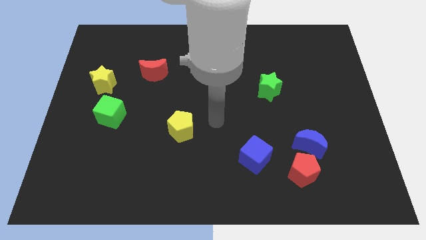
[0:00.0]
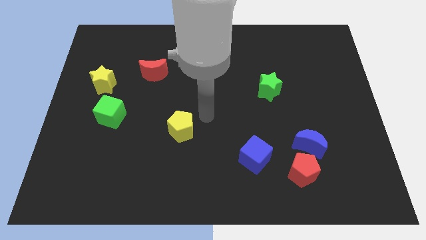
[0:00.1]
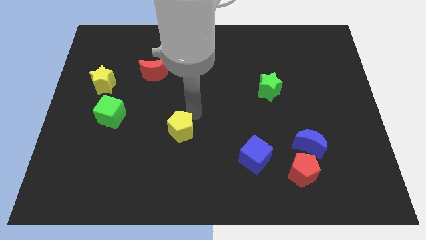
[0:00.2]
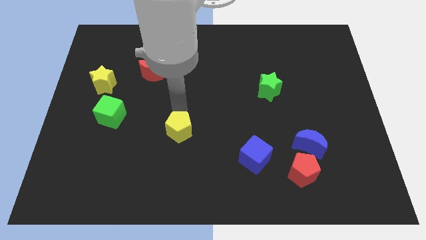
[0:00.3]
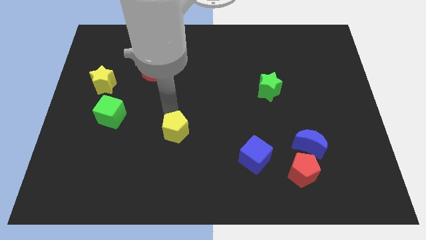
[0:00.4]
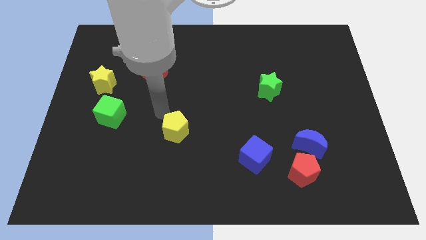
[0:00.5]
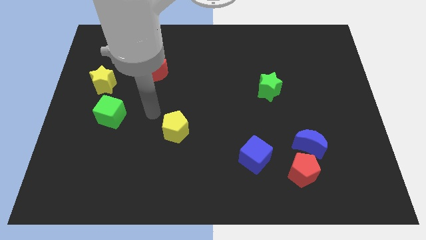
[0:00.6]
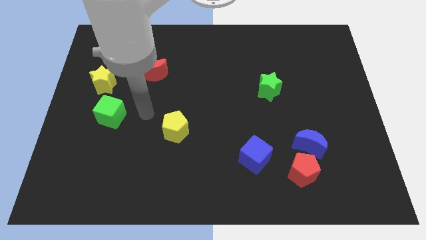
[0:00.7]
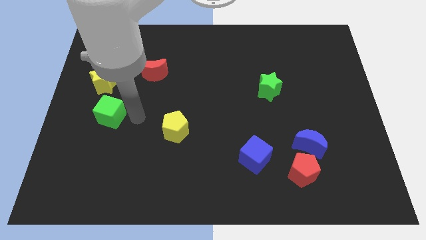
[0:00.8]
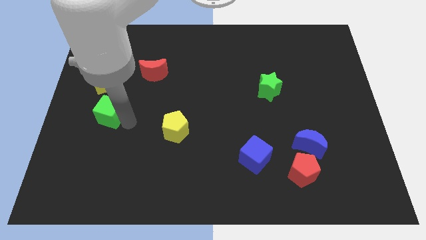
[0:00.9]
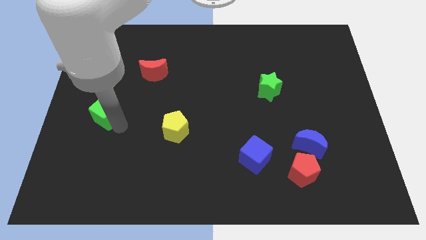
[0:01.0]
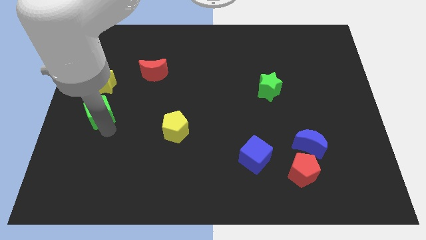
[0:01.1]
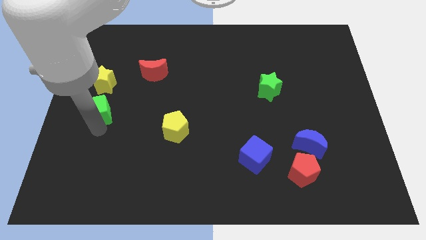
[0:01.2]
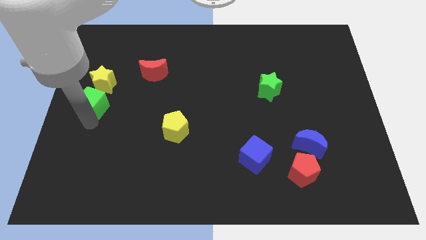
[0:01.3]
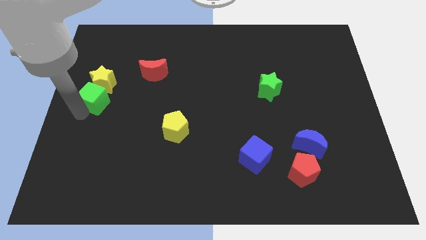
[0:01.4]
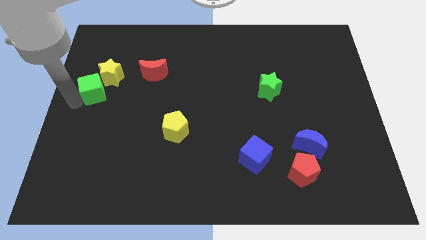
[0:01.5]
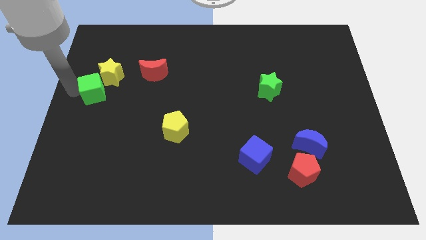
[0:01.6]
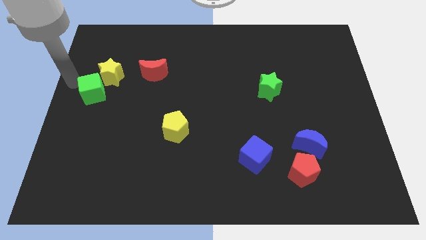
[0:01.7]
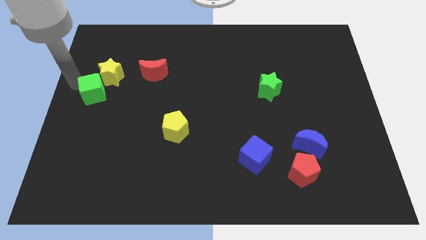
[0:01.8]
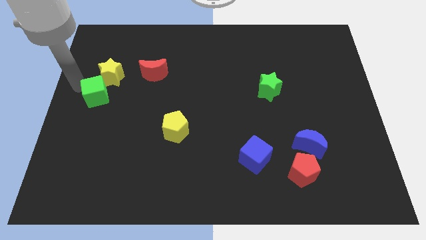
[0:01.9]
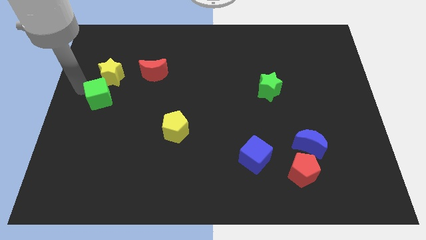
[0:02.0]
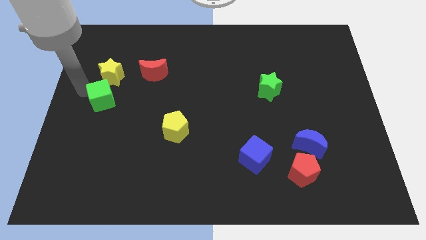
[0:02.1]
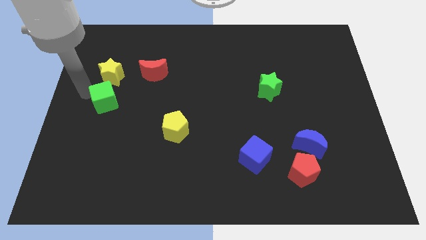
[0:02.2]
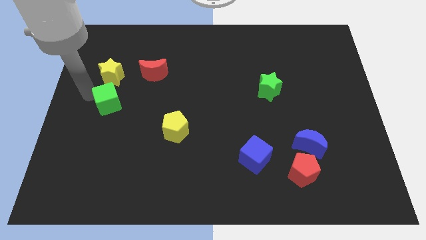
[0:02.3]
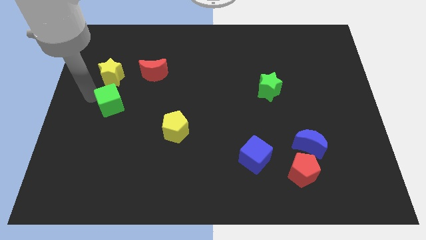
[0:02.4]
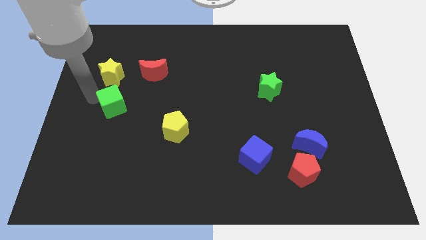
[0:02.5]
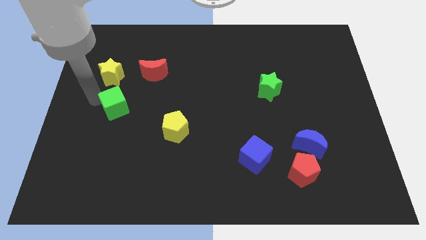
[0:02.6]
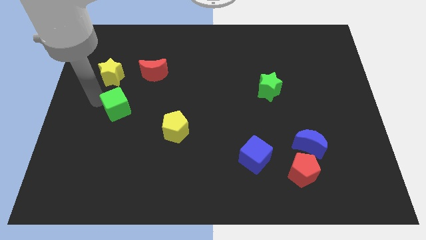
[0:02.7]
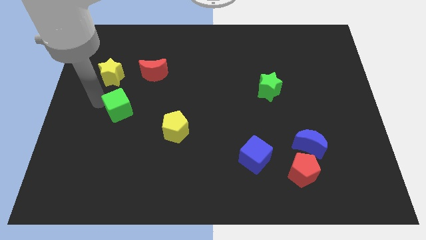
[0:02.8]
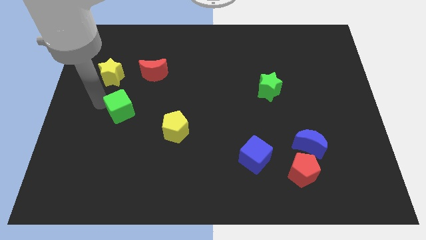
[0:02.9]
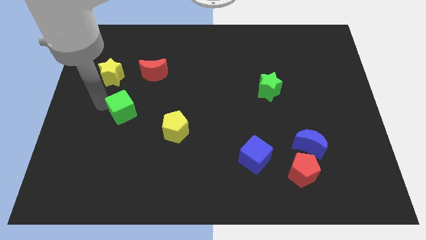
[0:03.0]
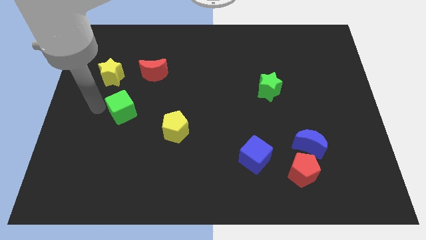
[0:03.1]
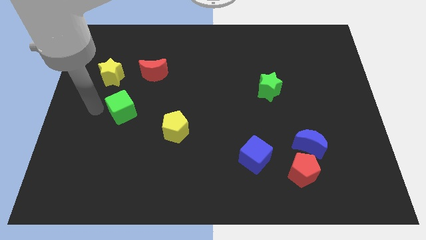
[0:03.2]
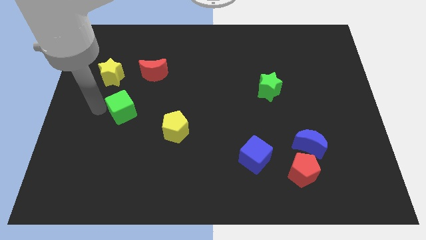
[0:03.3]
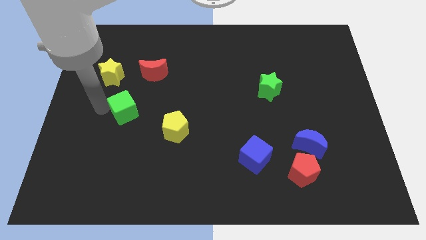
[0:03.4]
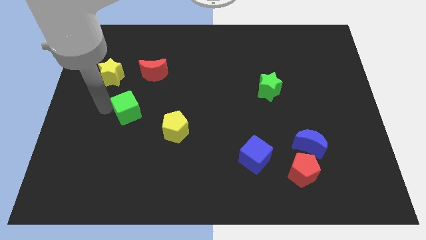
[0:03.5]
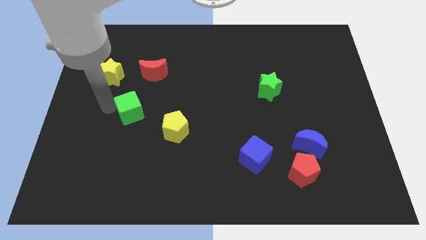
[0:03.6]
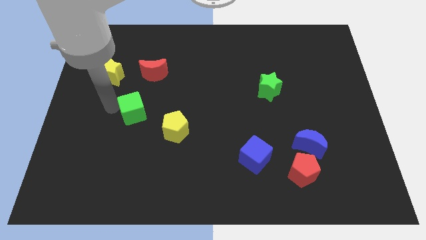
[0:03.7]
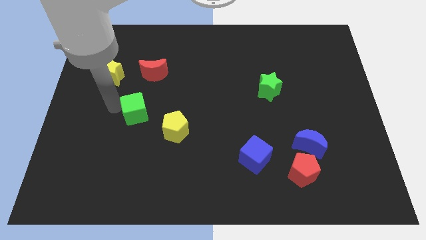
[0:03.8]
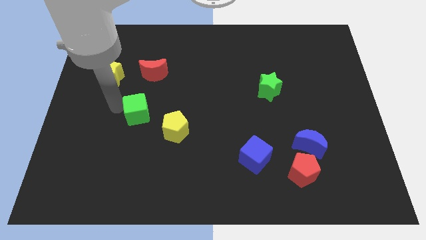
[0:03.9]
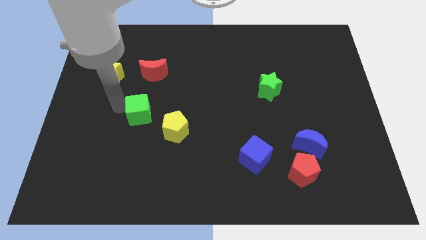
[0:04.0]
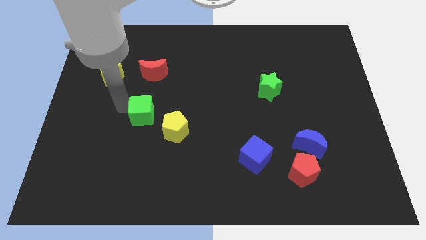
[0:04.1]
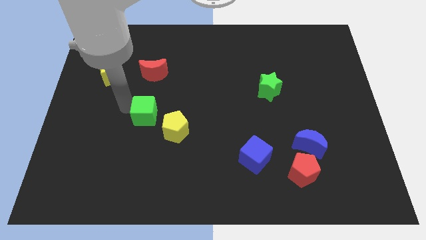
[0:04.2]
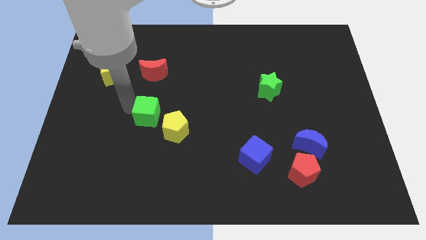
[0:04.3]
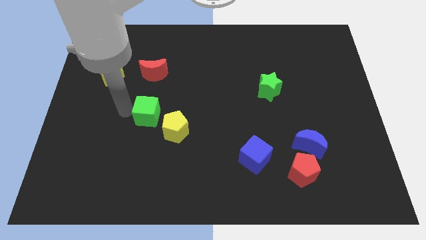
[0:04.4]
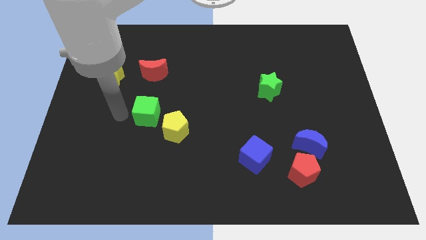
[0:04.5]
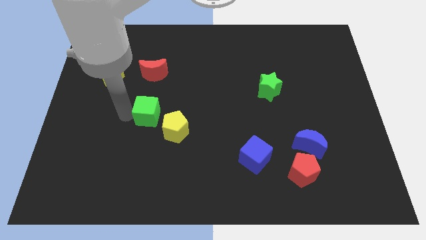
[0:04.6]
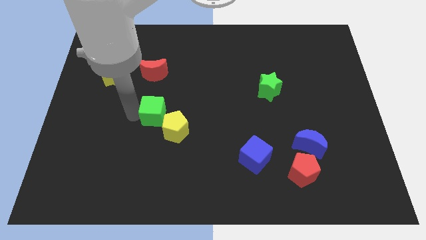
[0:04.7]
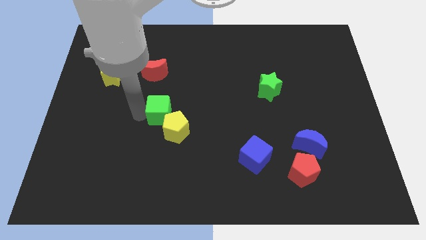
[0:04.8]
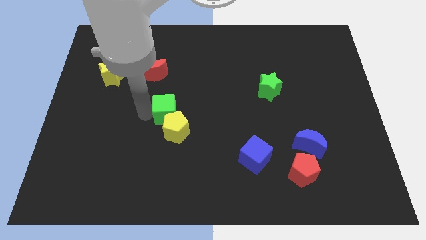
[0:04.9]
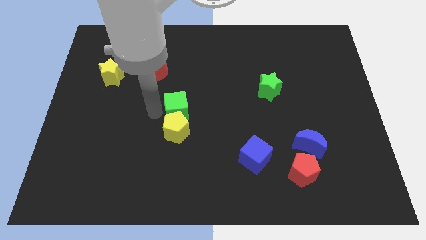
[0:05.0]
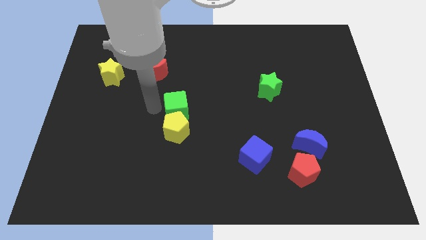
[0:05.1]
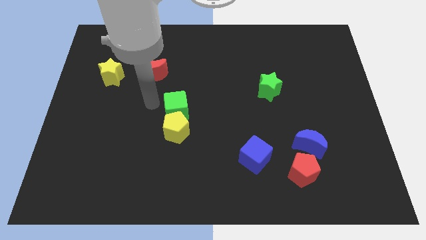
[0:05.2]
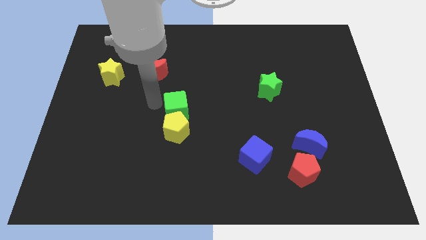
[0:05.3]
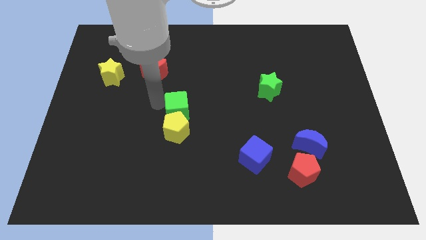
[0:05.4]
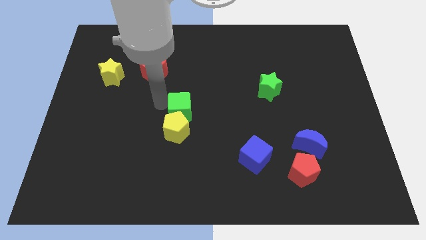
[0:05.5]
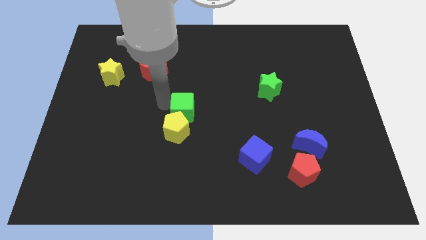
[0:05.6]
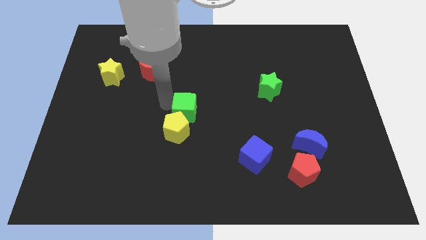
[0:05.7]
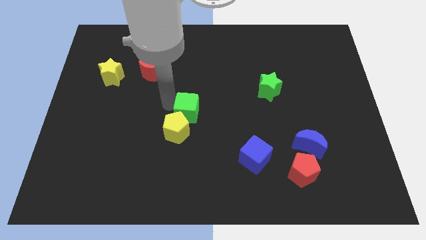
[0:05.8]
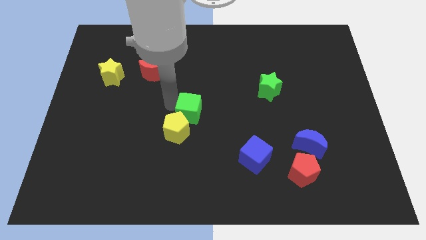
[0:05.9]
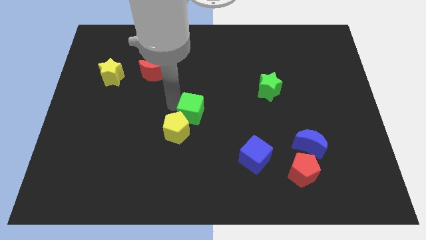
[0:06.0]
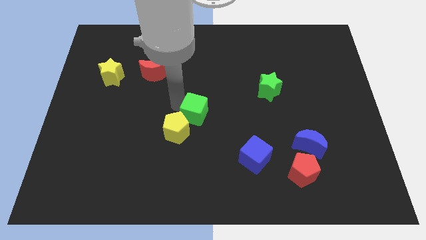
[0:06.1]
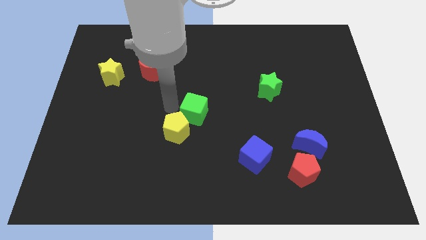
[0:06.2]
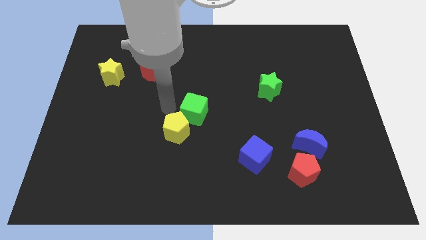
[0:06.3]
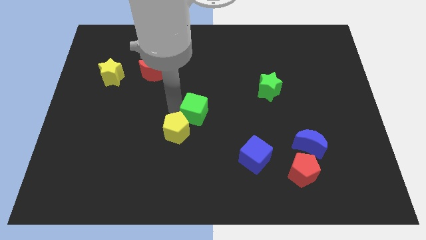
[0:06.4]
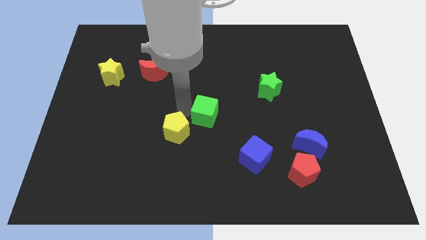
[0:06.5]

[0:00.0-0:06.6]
move the green cube to the right

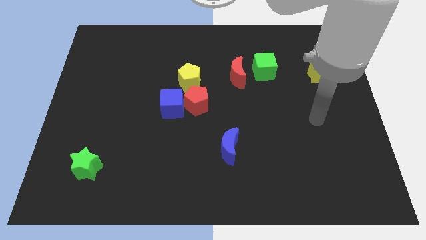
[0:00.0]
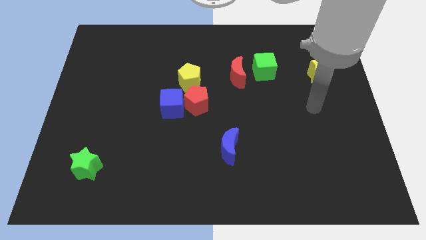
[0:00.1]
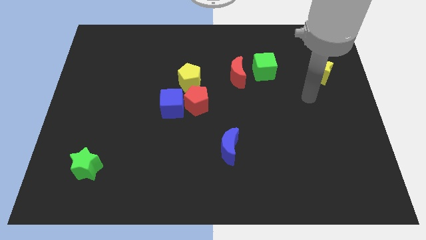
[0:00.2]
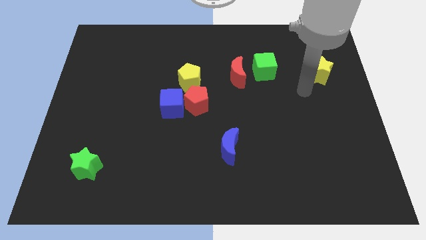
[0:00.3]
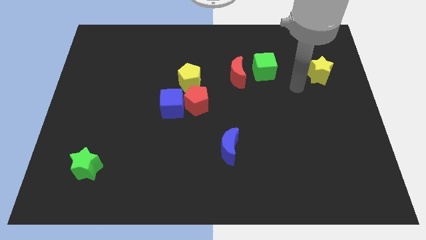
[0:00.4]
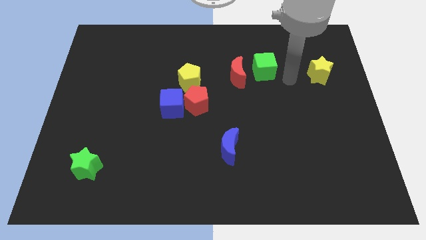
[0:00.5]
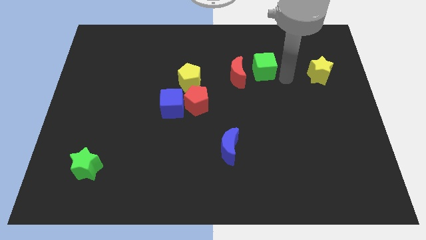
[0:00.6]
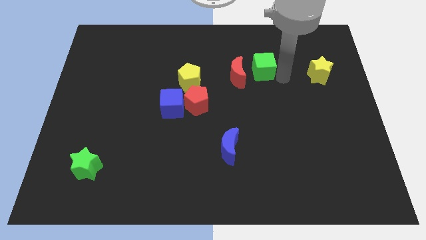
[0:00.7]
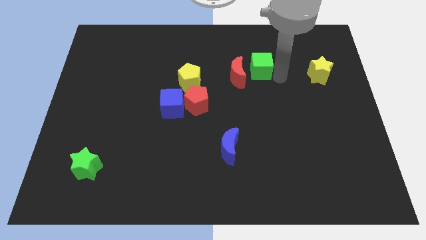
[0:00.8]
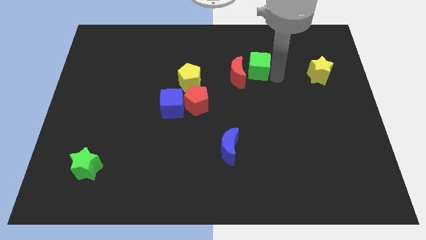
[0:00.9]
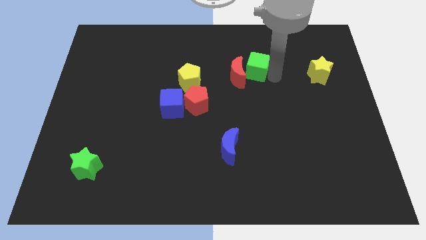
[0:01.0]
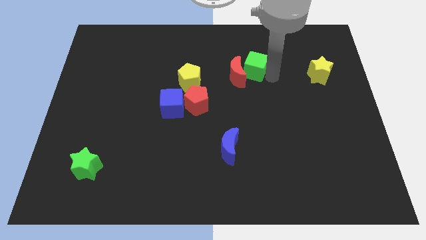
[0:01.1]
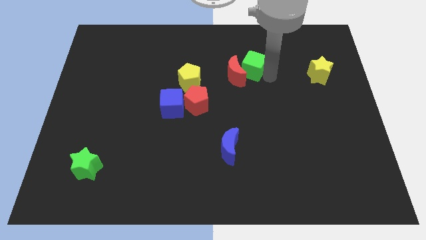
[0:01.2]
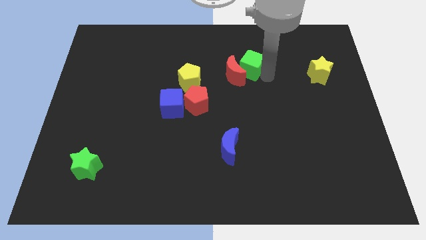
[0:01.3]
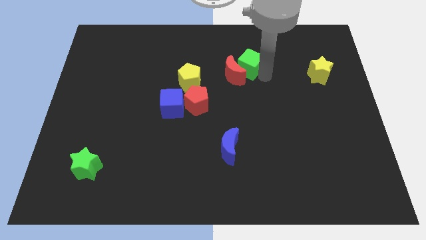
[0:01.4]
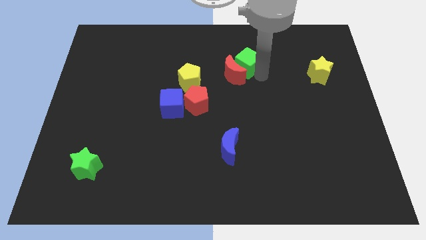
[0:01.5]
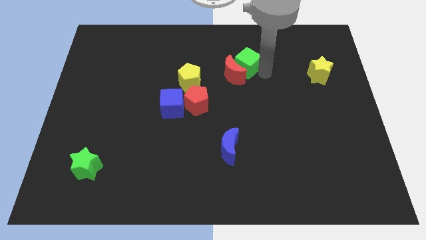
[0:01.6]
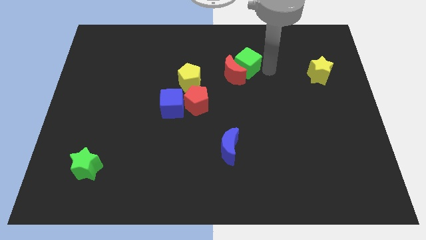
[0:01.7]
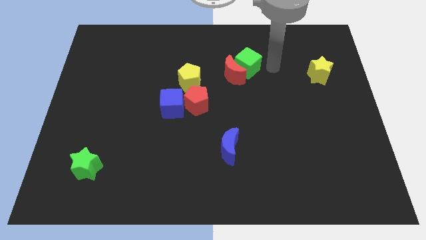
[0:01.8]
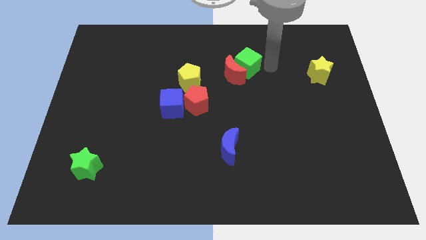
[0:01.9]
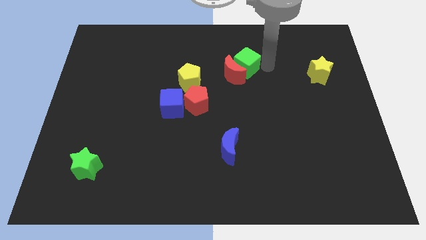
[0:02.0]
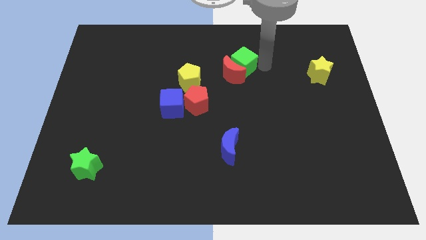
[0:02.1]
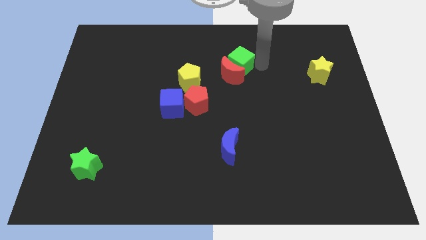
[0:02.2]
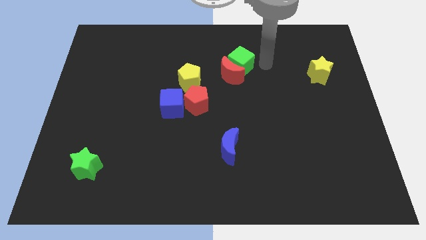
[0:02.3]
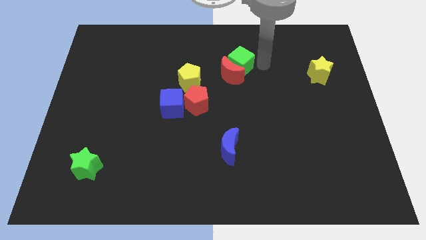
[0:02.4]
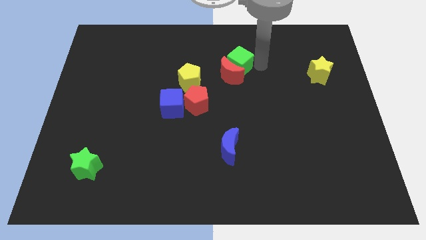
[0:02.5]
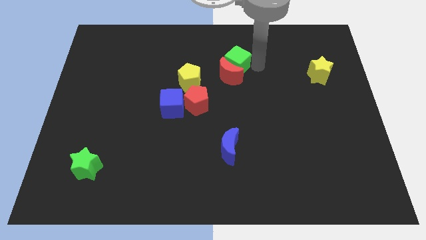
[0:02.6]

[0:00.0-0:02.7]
slide the green cube to the left somewhat
